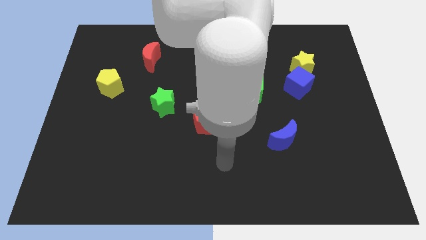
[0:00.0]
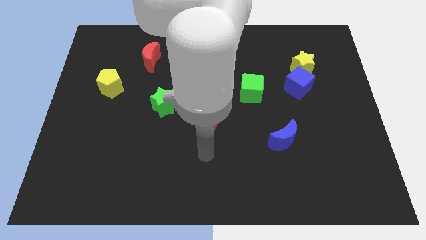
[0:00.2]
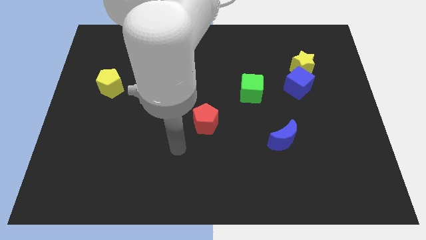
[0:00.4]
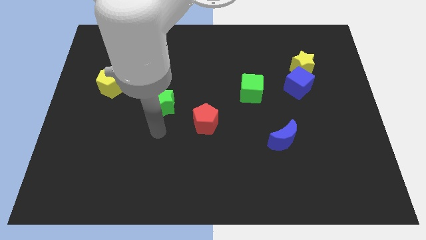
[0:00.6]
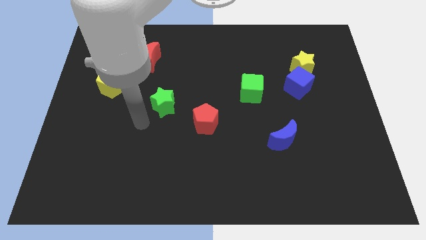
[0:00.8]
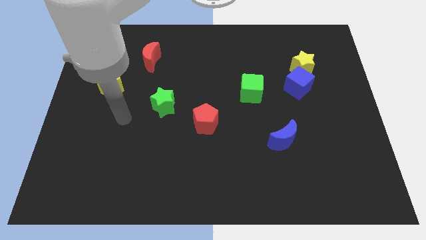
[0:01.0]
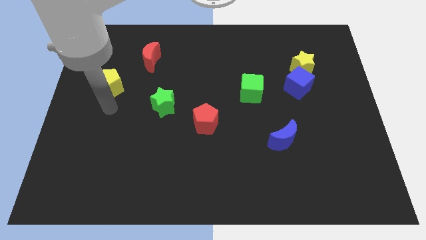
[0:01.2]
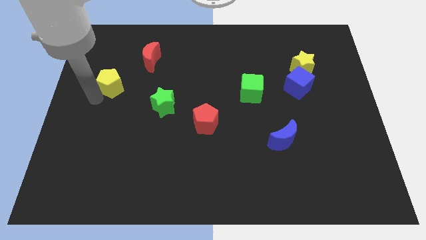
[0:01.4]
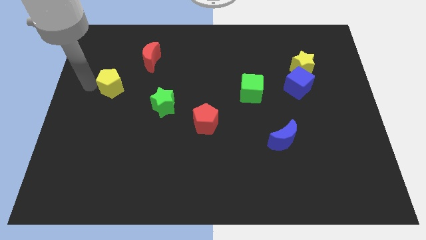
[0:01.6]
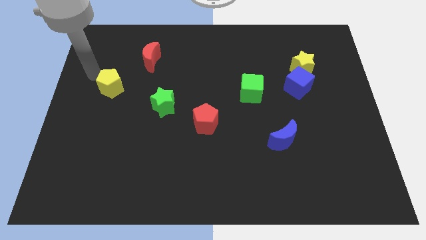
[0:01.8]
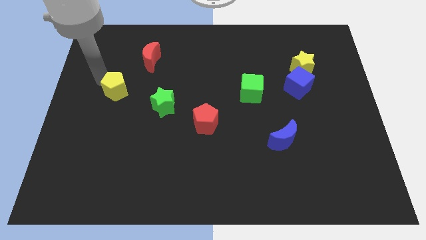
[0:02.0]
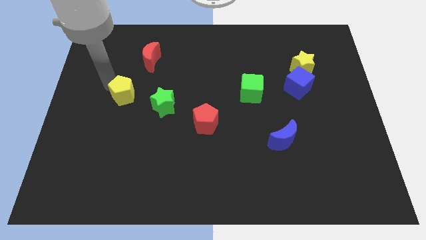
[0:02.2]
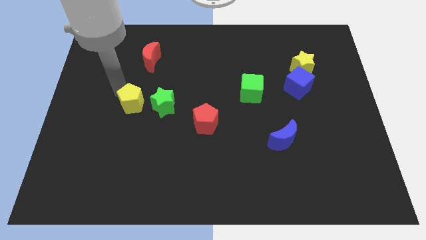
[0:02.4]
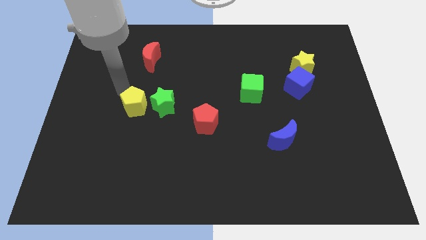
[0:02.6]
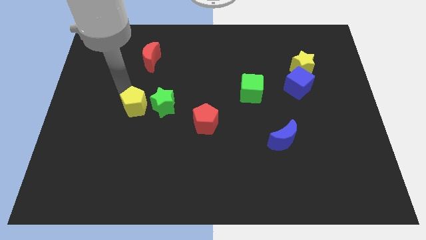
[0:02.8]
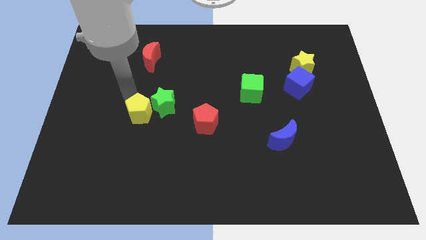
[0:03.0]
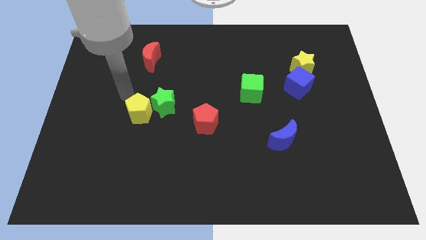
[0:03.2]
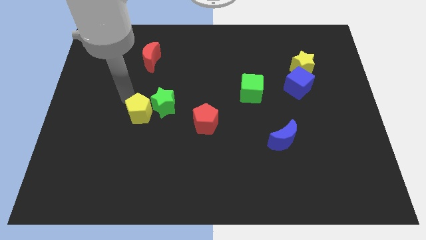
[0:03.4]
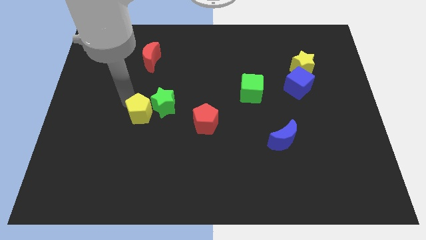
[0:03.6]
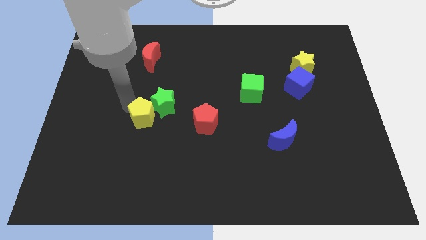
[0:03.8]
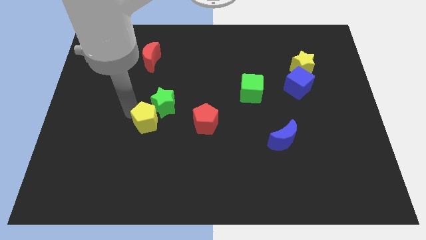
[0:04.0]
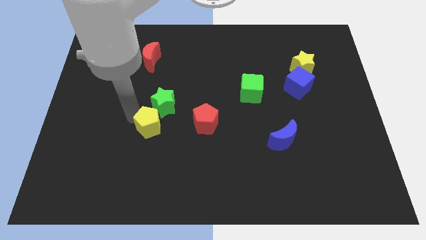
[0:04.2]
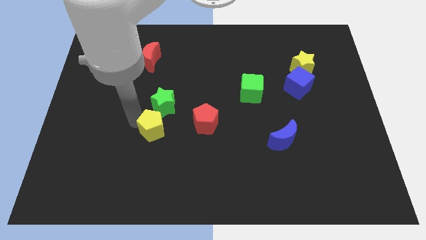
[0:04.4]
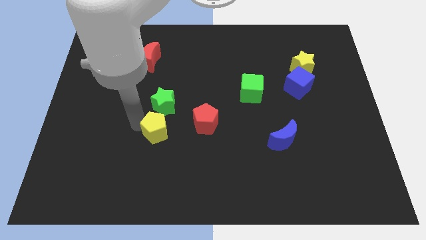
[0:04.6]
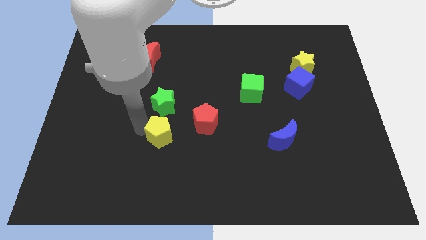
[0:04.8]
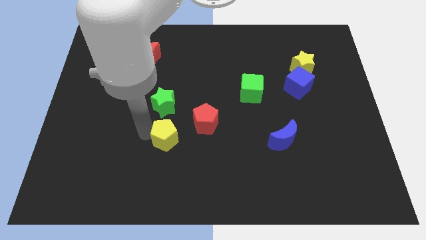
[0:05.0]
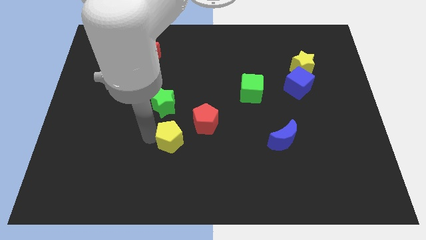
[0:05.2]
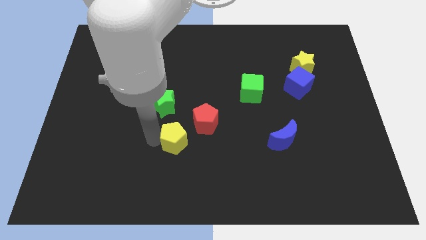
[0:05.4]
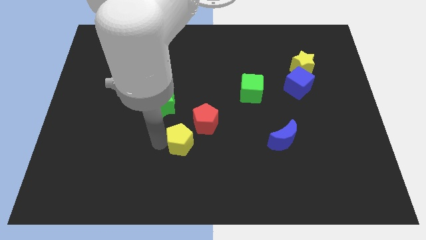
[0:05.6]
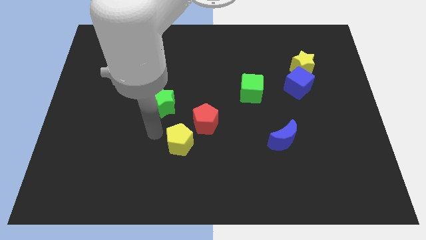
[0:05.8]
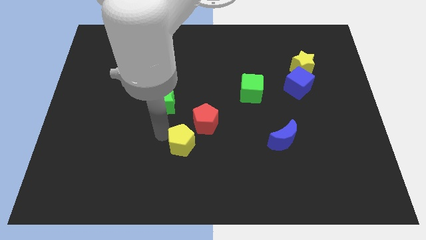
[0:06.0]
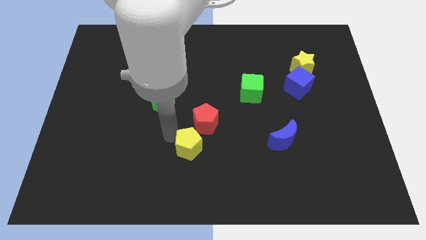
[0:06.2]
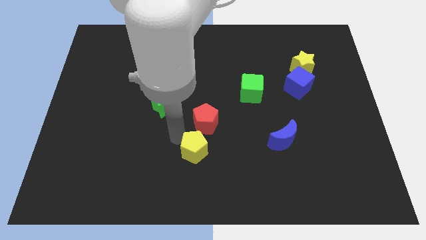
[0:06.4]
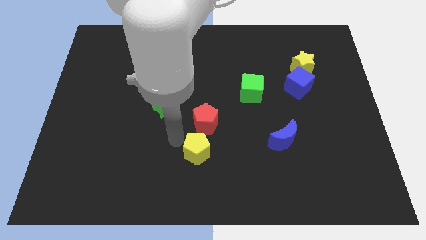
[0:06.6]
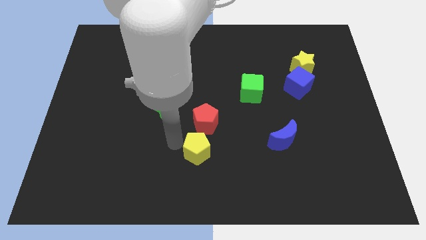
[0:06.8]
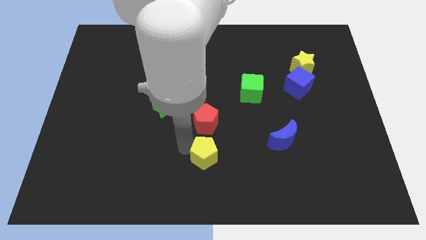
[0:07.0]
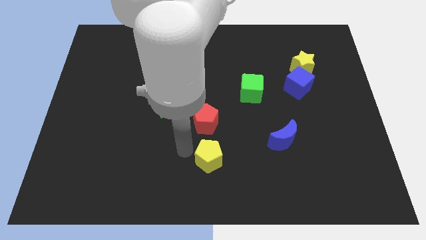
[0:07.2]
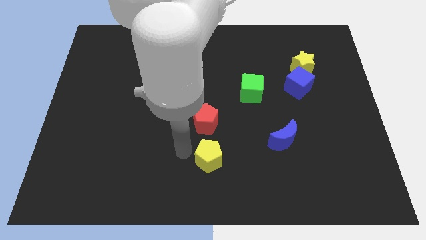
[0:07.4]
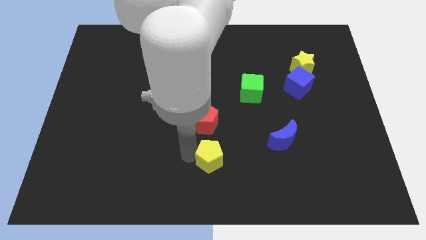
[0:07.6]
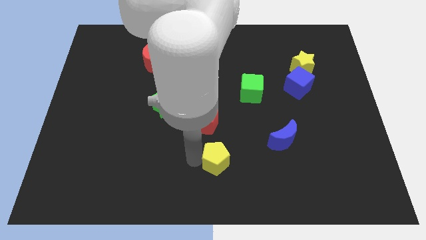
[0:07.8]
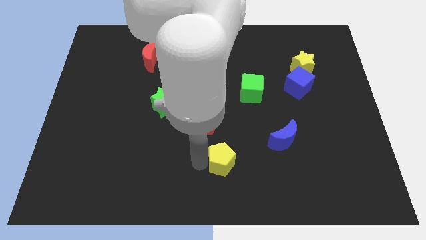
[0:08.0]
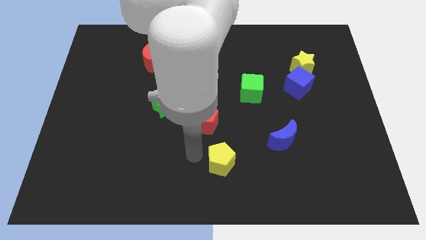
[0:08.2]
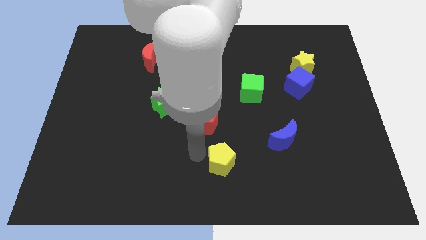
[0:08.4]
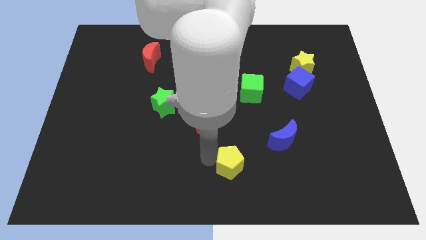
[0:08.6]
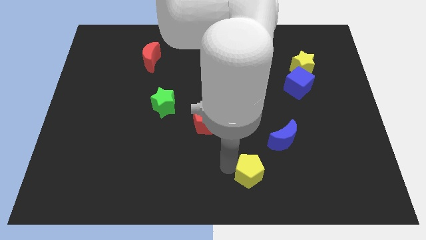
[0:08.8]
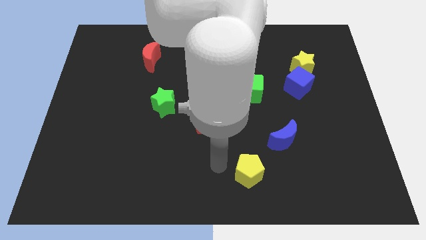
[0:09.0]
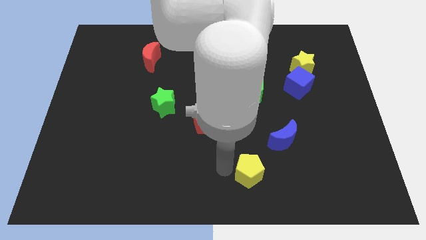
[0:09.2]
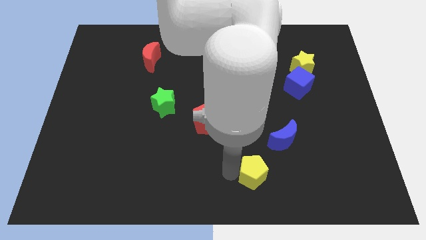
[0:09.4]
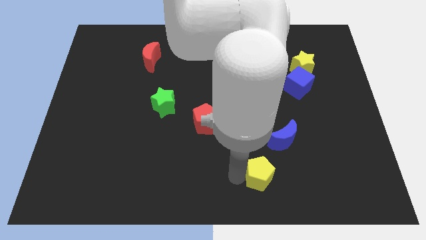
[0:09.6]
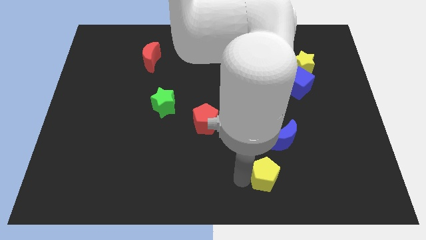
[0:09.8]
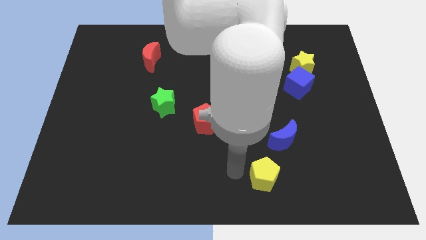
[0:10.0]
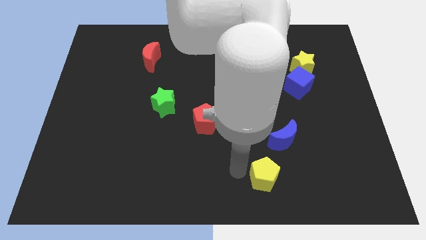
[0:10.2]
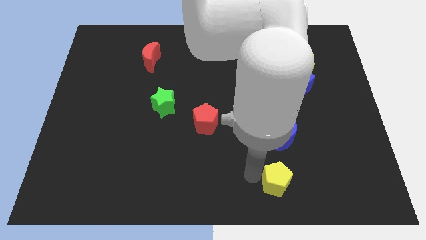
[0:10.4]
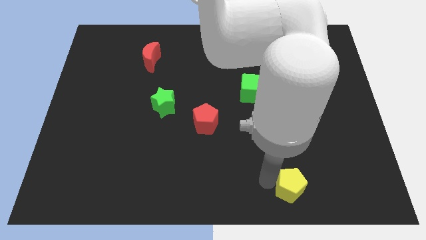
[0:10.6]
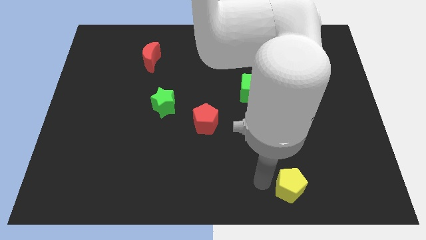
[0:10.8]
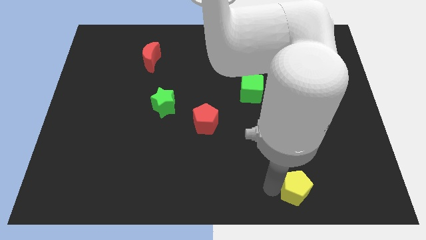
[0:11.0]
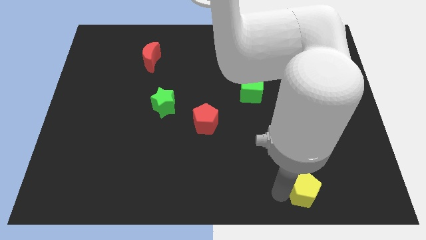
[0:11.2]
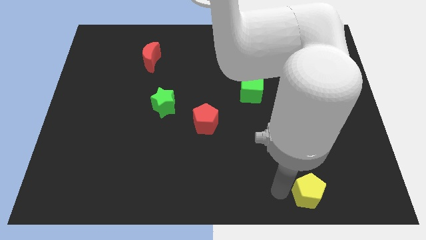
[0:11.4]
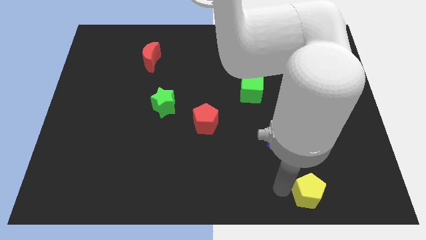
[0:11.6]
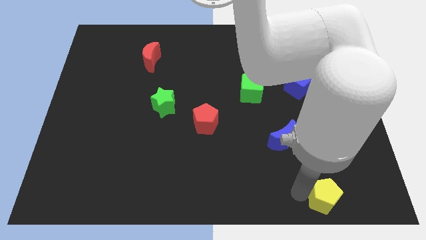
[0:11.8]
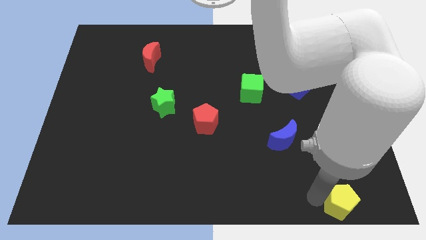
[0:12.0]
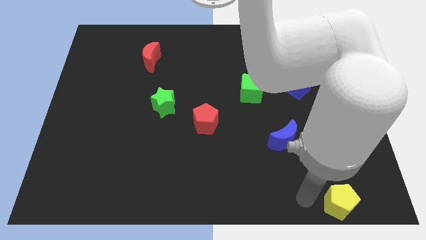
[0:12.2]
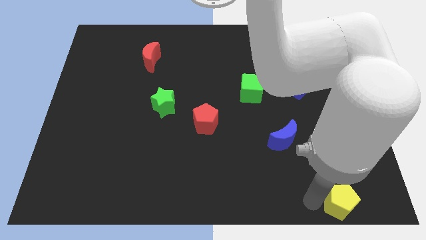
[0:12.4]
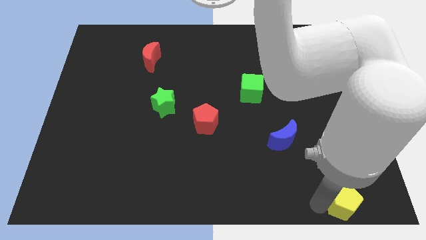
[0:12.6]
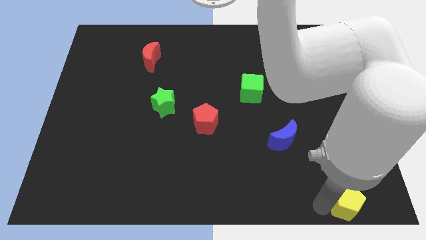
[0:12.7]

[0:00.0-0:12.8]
put the yellow pentagon to the lower right corner
